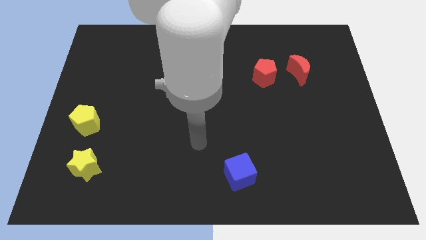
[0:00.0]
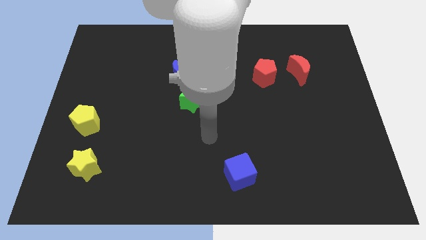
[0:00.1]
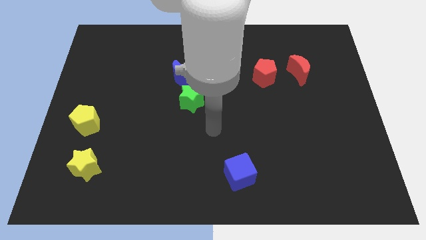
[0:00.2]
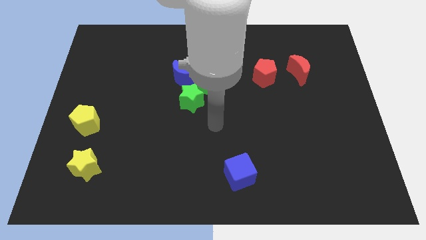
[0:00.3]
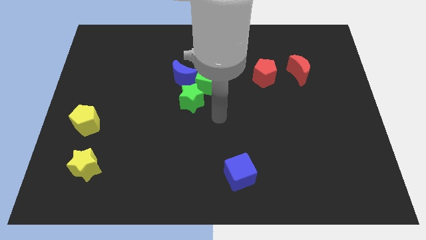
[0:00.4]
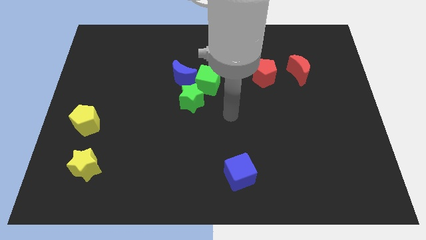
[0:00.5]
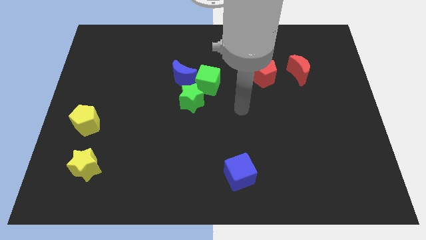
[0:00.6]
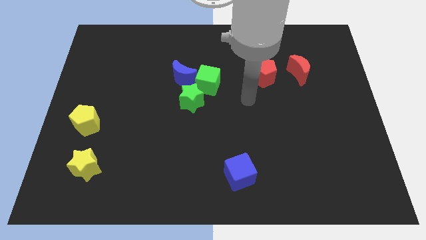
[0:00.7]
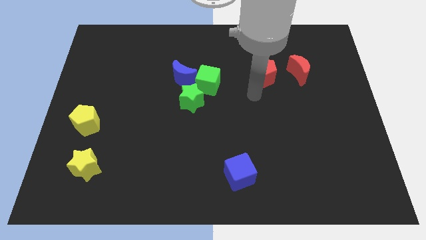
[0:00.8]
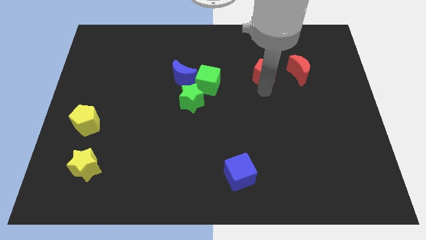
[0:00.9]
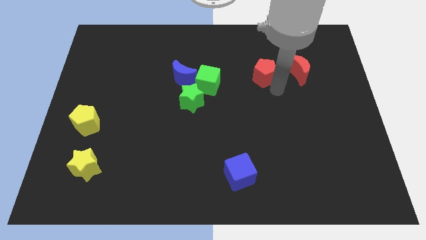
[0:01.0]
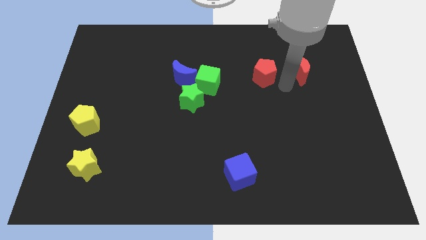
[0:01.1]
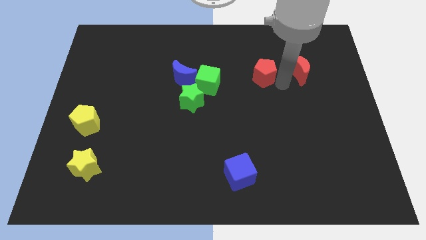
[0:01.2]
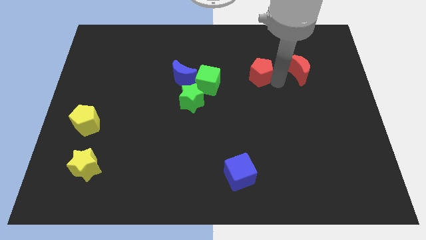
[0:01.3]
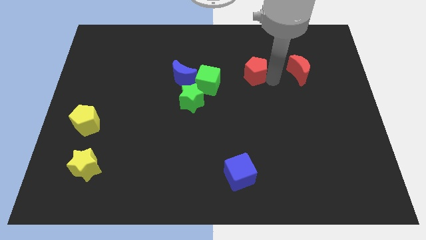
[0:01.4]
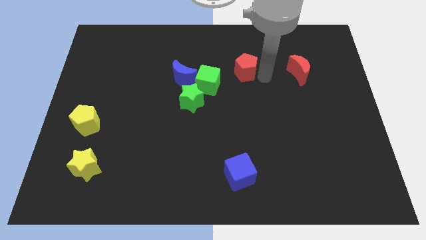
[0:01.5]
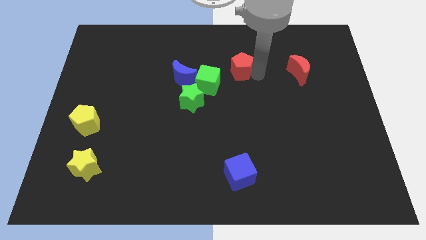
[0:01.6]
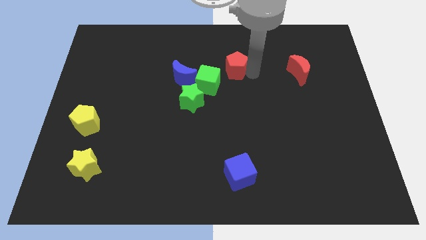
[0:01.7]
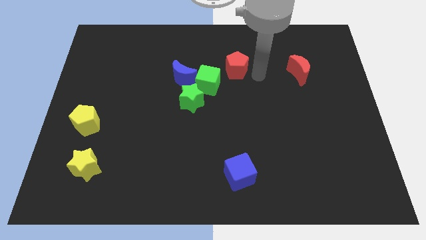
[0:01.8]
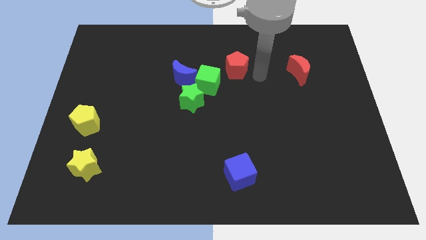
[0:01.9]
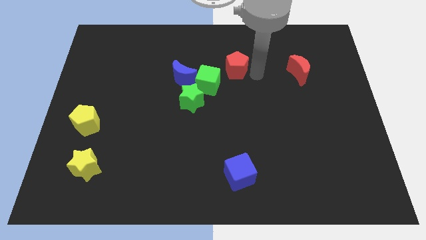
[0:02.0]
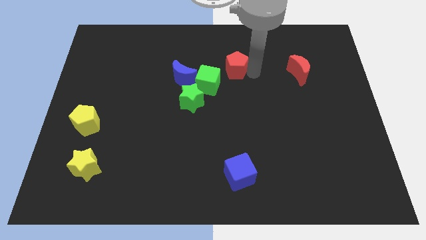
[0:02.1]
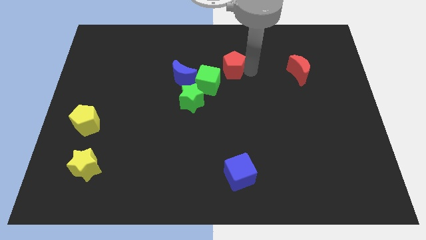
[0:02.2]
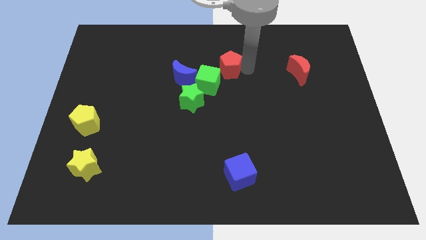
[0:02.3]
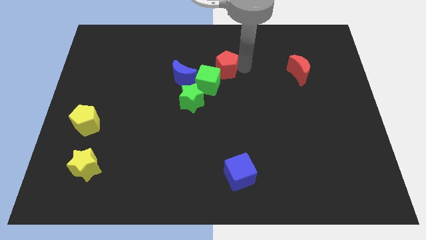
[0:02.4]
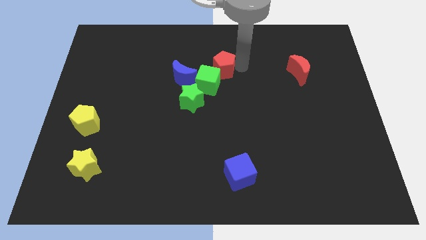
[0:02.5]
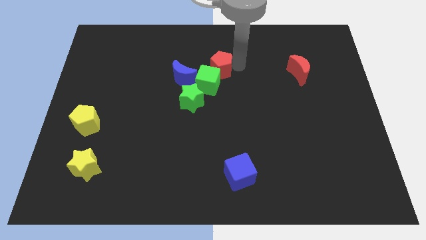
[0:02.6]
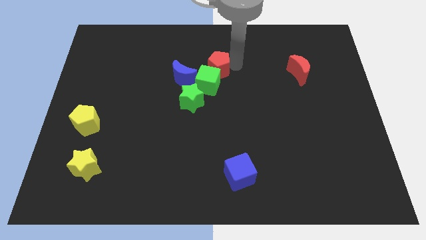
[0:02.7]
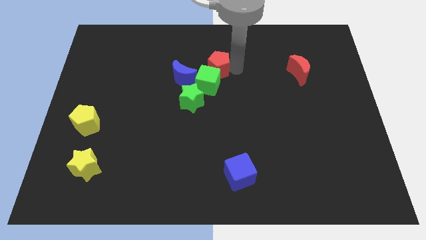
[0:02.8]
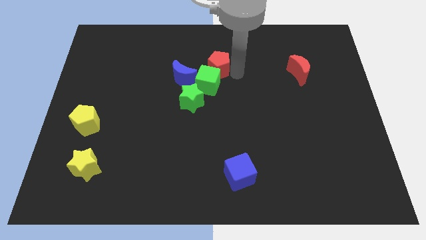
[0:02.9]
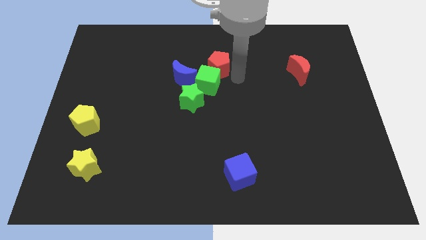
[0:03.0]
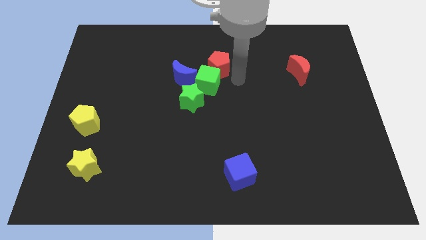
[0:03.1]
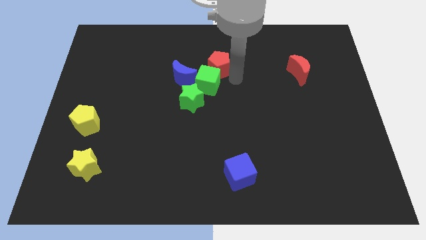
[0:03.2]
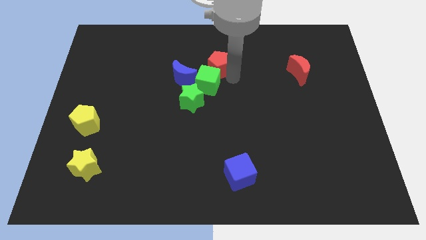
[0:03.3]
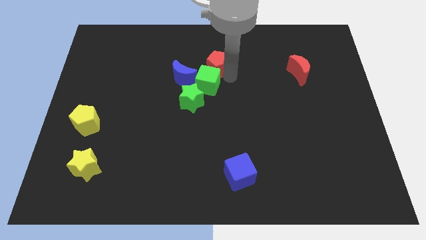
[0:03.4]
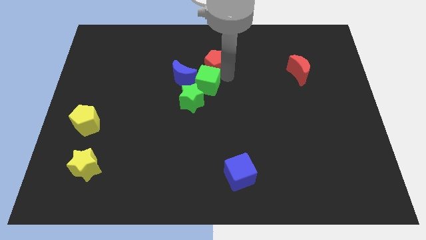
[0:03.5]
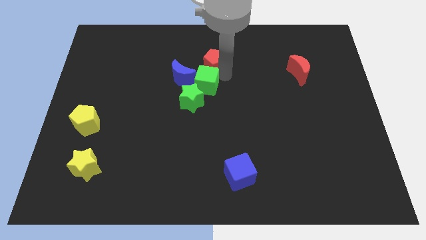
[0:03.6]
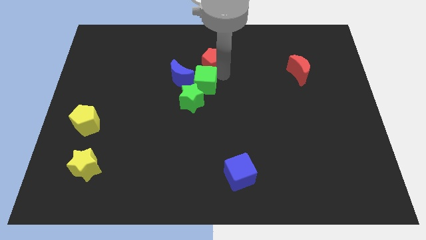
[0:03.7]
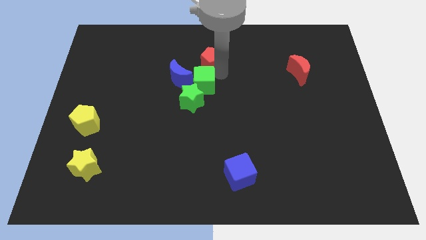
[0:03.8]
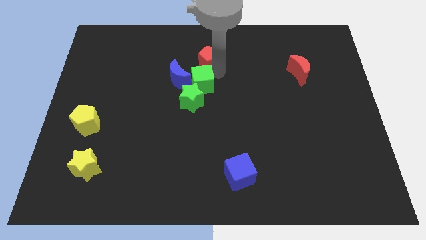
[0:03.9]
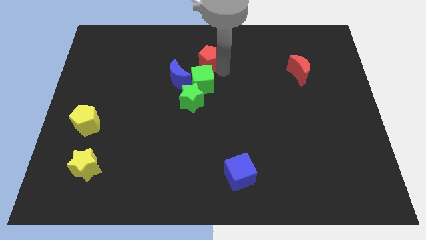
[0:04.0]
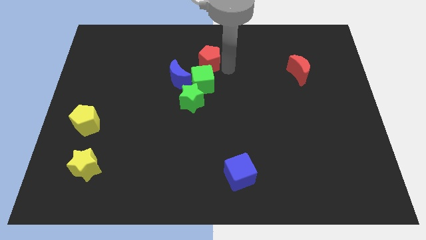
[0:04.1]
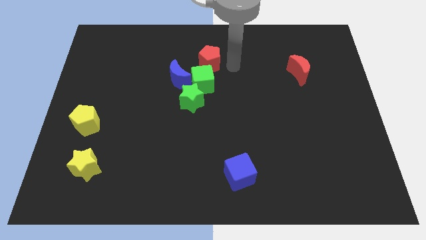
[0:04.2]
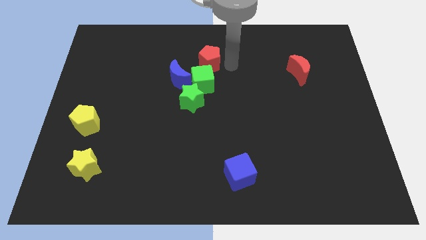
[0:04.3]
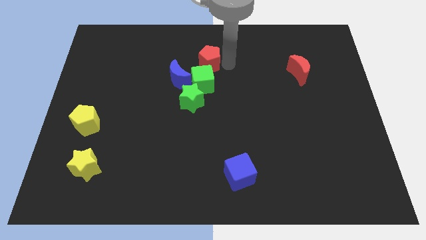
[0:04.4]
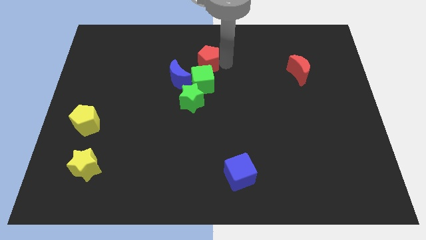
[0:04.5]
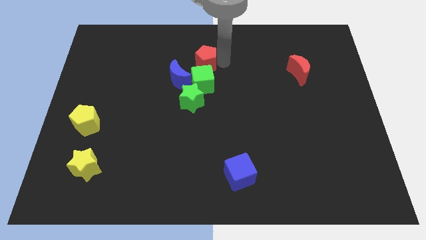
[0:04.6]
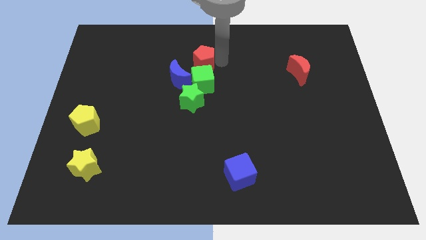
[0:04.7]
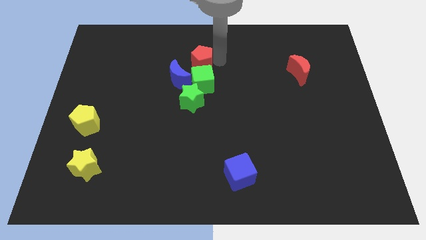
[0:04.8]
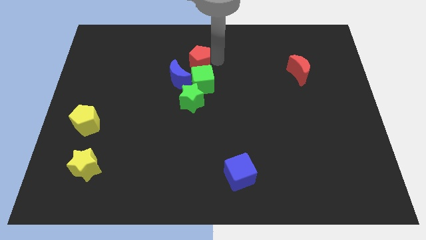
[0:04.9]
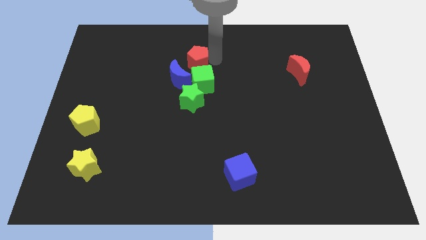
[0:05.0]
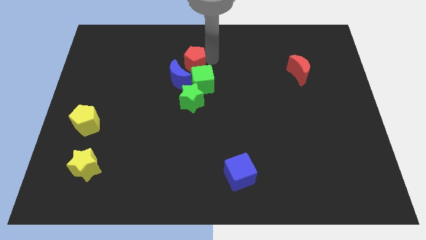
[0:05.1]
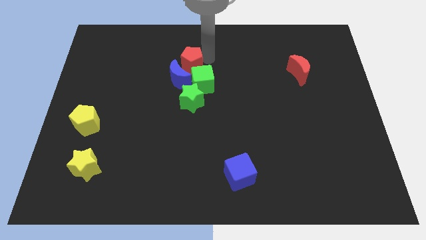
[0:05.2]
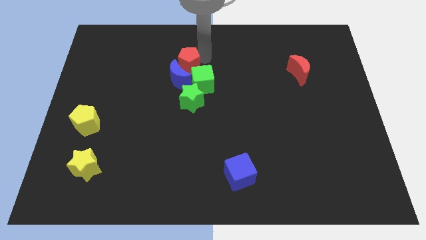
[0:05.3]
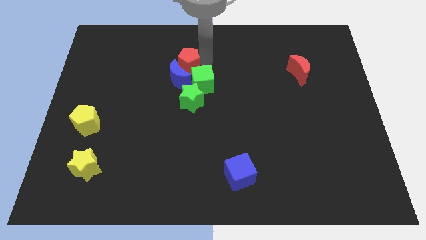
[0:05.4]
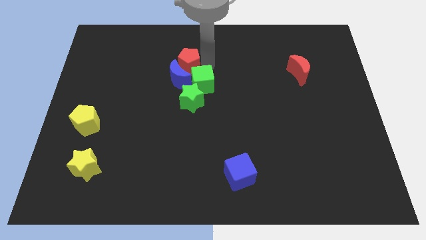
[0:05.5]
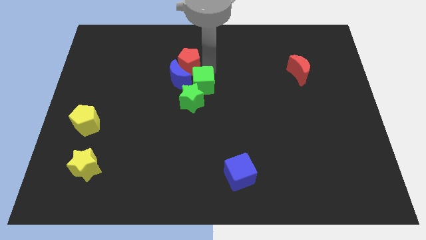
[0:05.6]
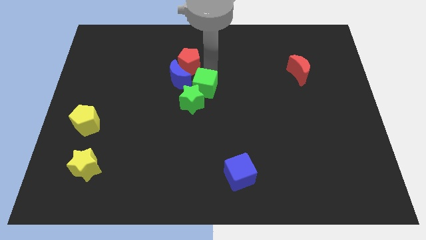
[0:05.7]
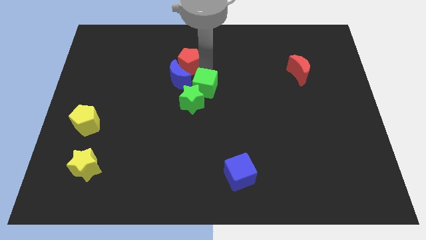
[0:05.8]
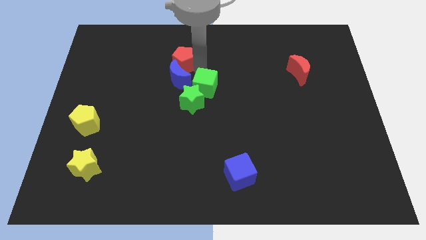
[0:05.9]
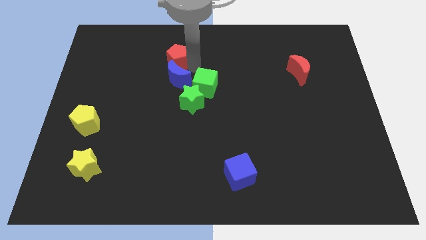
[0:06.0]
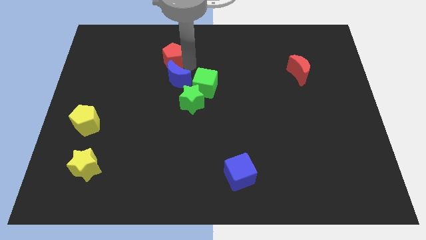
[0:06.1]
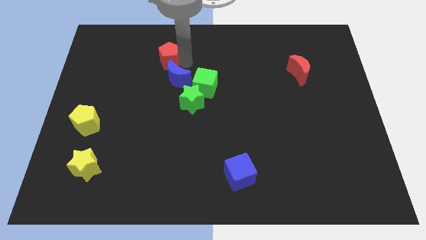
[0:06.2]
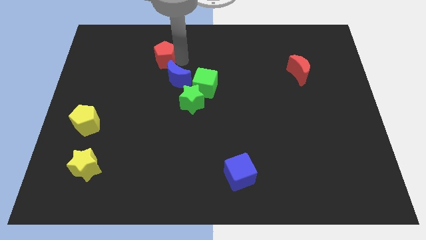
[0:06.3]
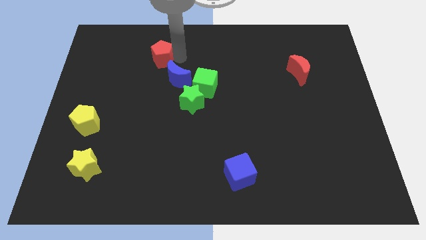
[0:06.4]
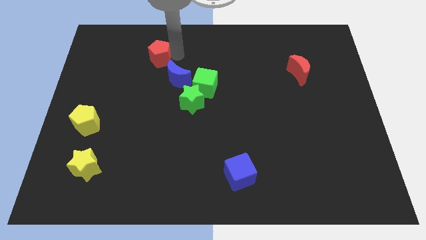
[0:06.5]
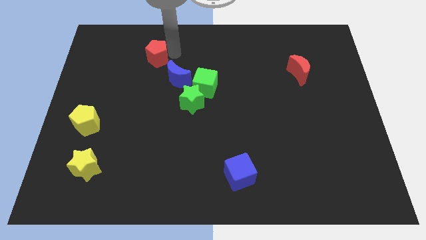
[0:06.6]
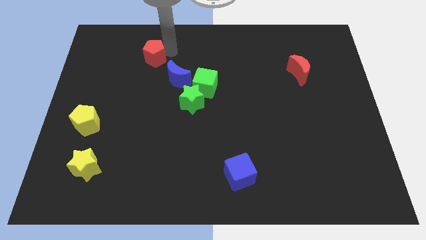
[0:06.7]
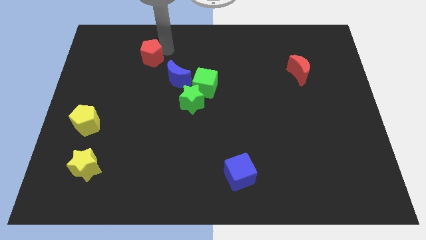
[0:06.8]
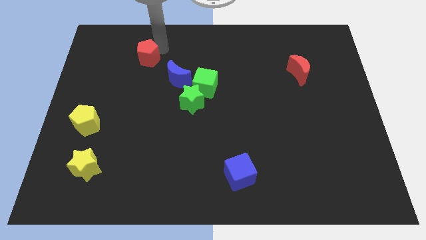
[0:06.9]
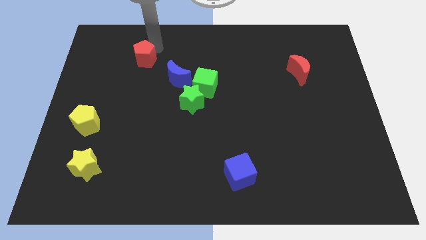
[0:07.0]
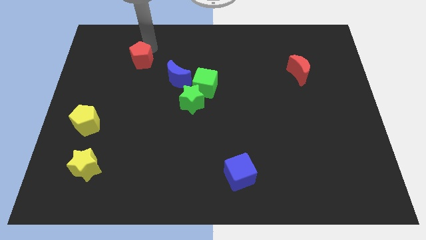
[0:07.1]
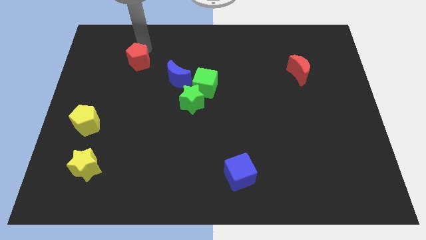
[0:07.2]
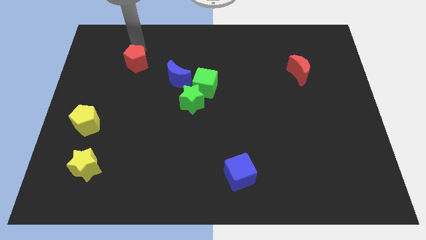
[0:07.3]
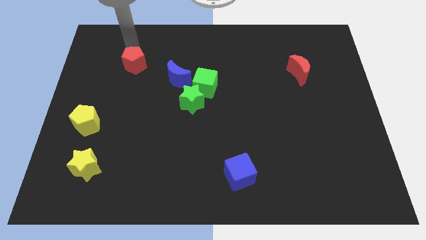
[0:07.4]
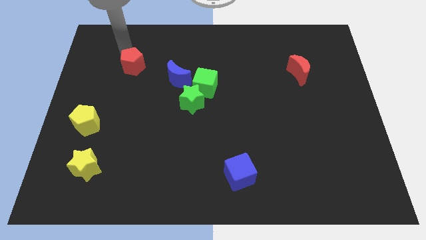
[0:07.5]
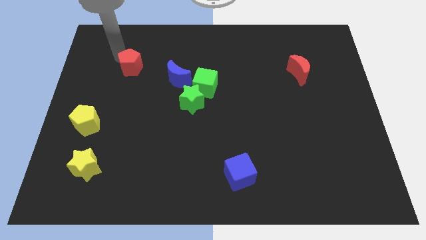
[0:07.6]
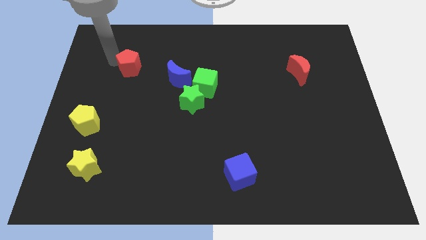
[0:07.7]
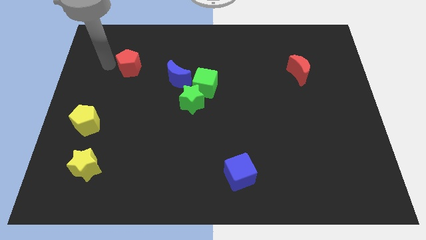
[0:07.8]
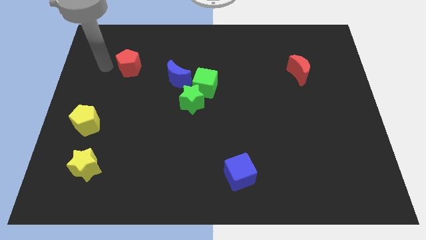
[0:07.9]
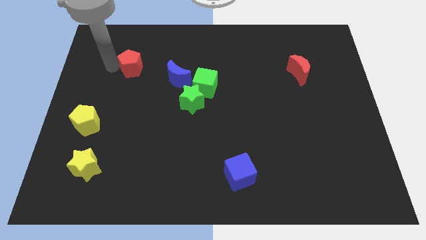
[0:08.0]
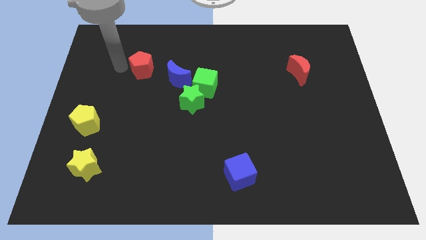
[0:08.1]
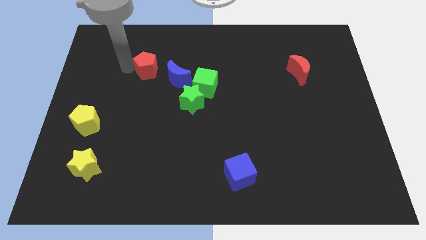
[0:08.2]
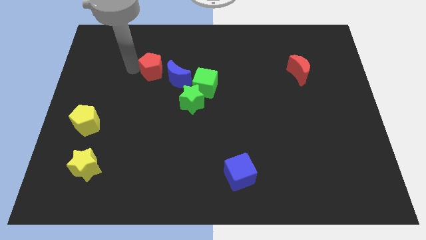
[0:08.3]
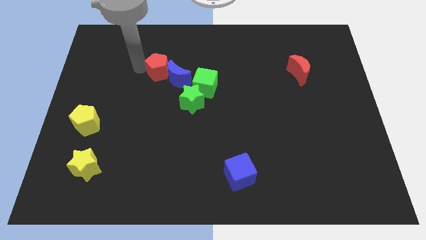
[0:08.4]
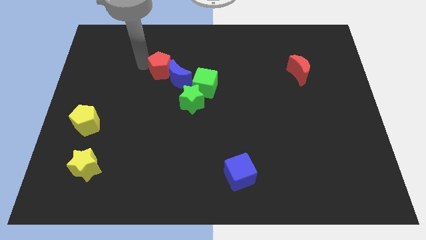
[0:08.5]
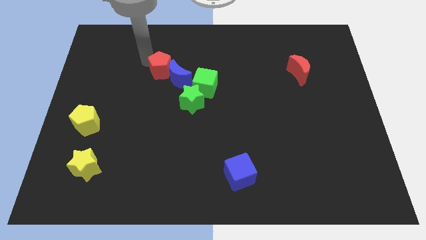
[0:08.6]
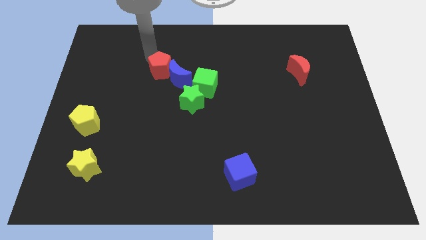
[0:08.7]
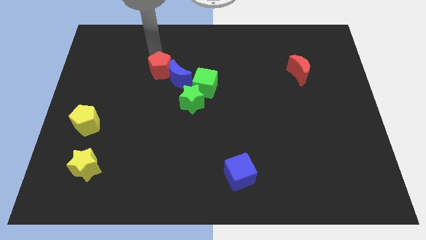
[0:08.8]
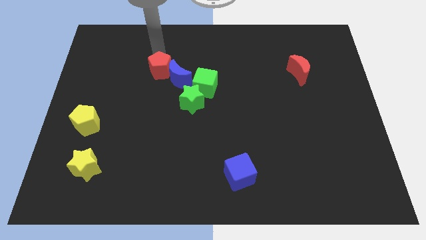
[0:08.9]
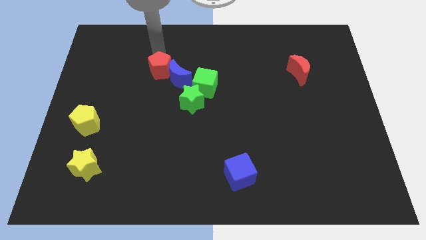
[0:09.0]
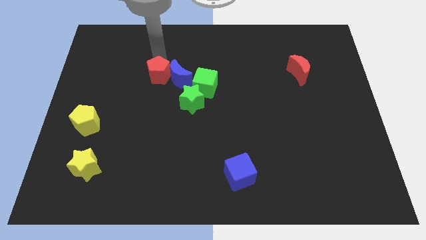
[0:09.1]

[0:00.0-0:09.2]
put the red pentagon to the left side of the green cube
